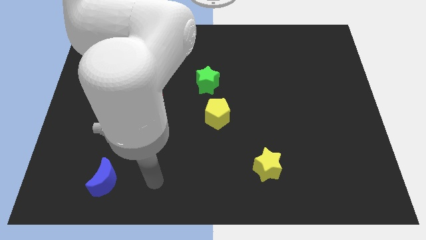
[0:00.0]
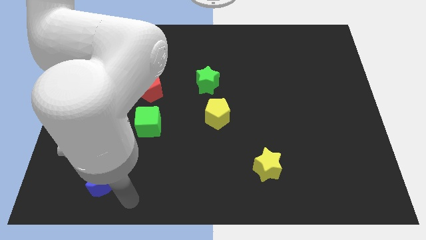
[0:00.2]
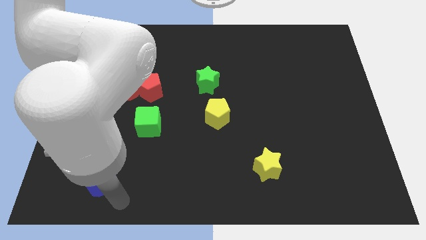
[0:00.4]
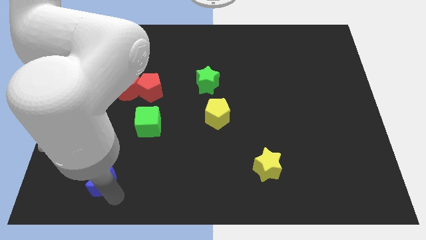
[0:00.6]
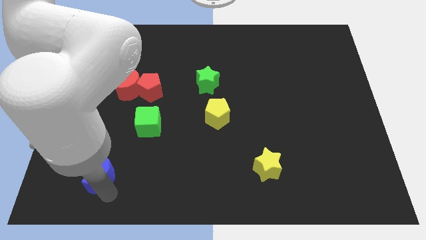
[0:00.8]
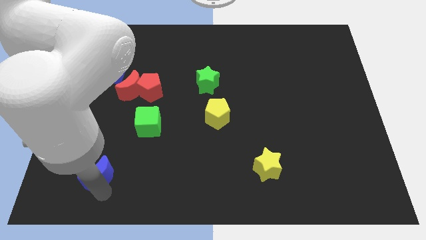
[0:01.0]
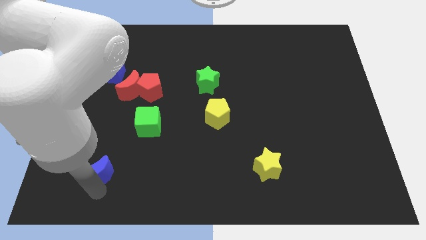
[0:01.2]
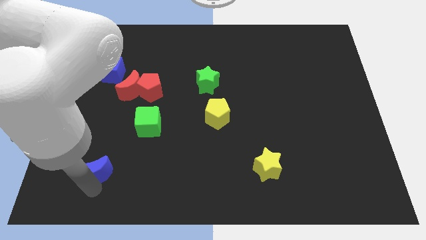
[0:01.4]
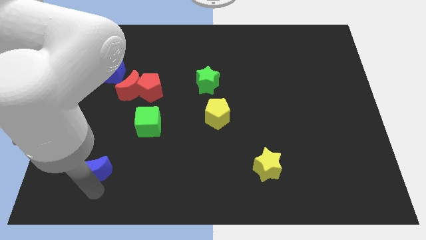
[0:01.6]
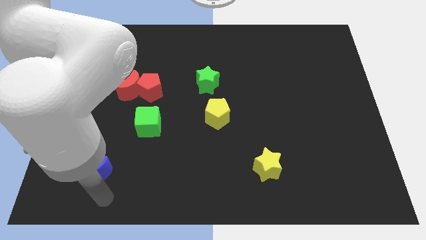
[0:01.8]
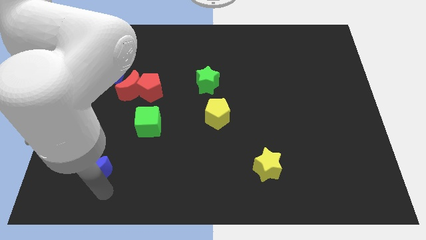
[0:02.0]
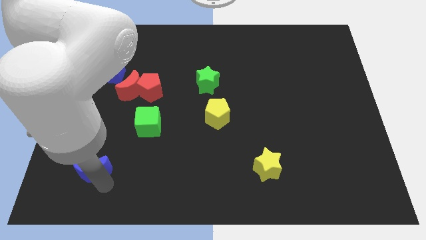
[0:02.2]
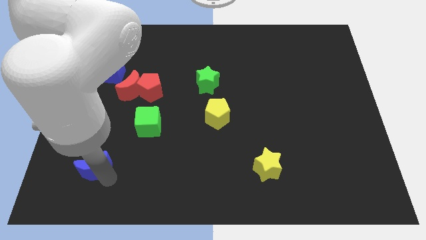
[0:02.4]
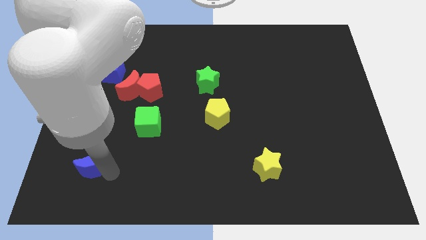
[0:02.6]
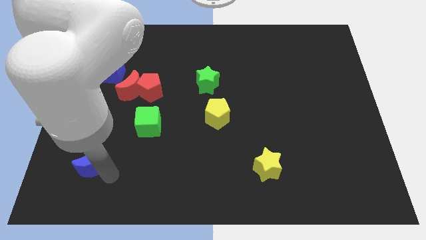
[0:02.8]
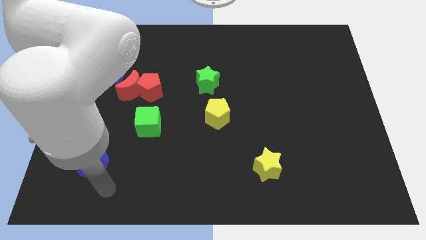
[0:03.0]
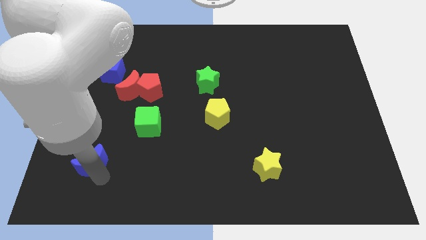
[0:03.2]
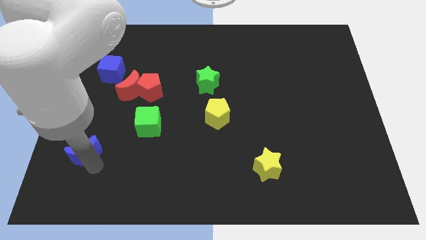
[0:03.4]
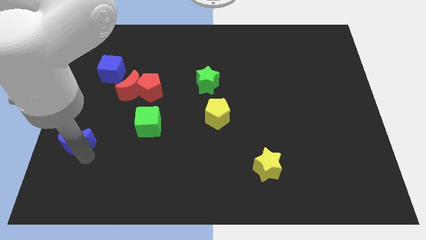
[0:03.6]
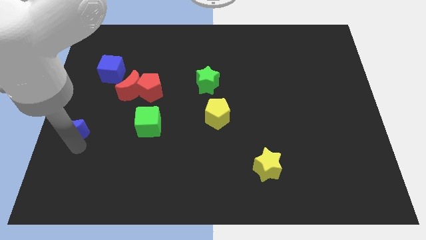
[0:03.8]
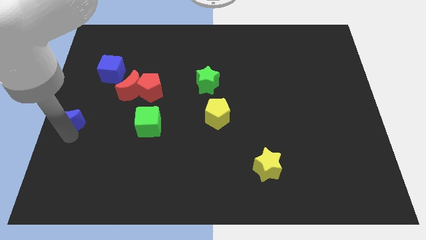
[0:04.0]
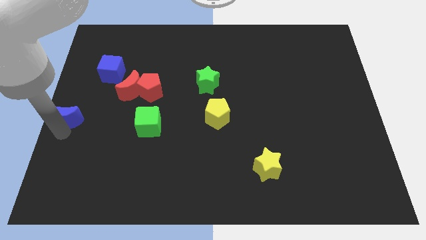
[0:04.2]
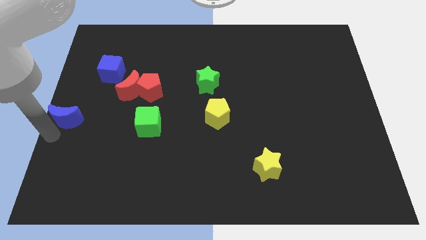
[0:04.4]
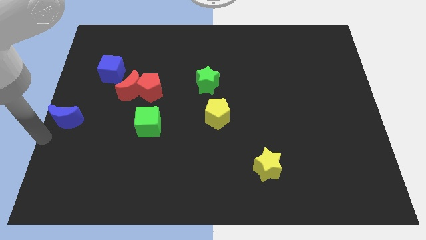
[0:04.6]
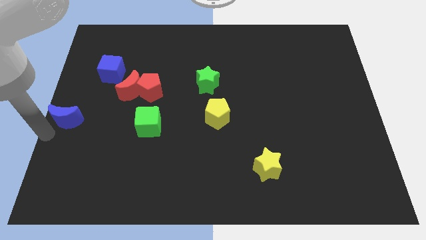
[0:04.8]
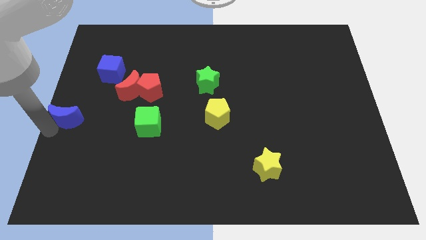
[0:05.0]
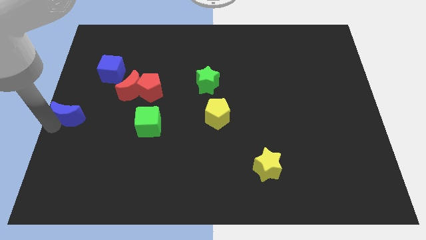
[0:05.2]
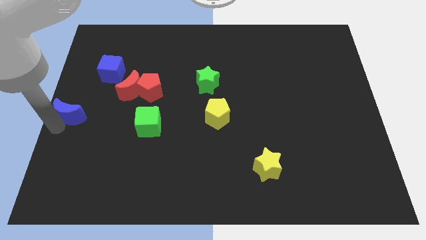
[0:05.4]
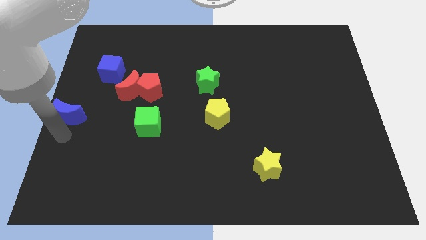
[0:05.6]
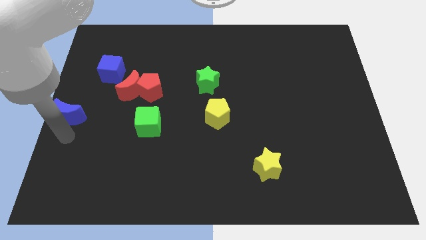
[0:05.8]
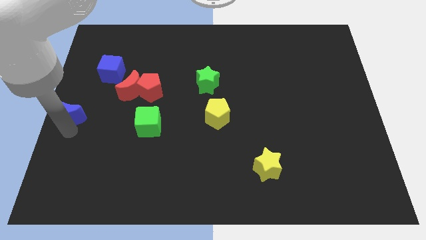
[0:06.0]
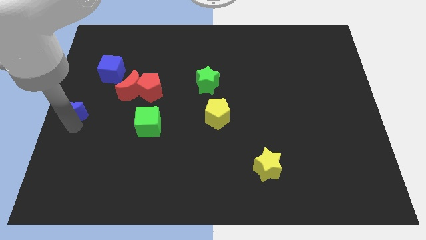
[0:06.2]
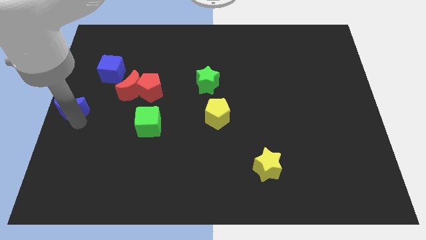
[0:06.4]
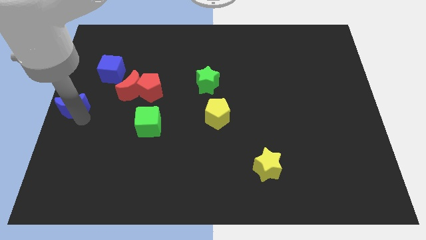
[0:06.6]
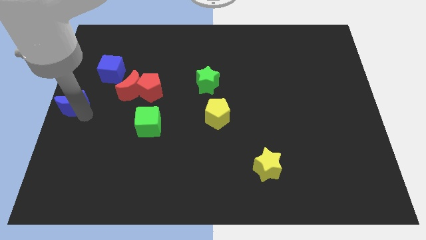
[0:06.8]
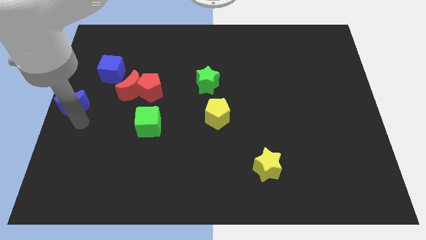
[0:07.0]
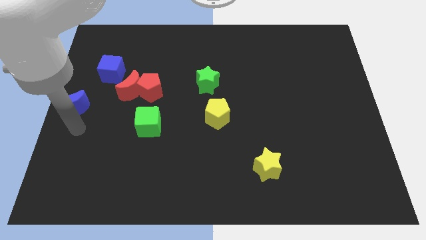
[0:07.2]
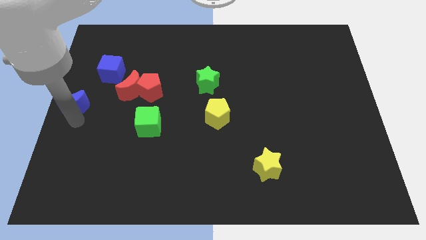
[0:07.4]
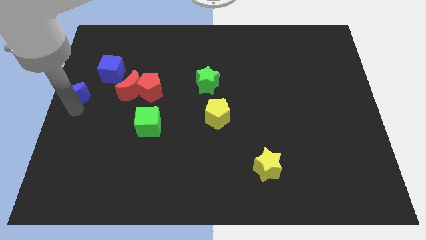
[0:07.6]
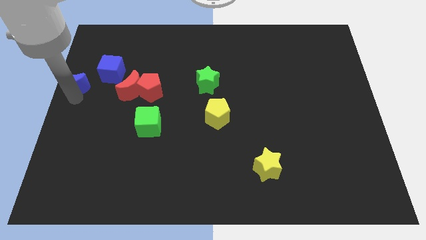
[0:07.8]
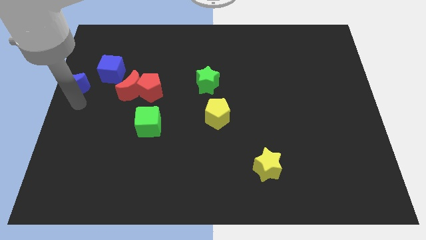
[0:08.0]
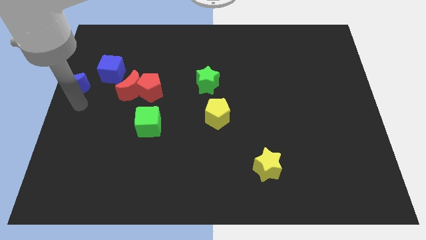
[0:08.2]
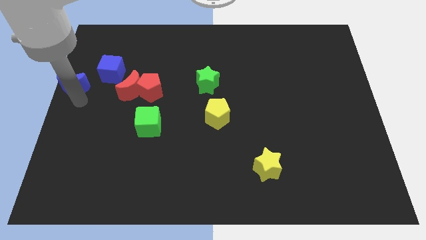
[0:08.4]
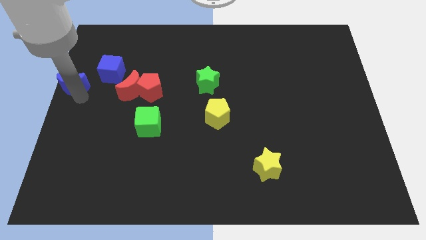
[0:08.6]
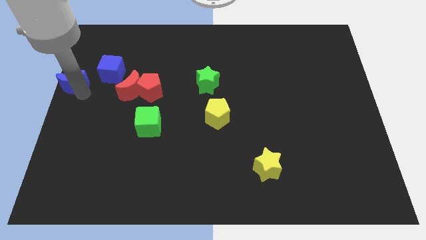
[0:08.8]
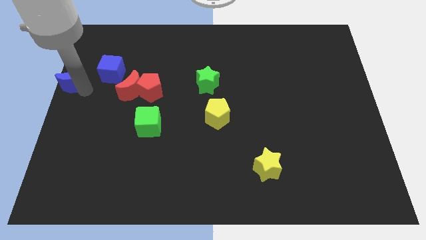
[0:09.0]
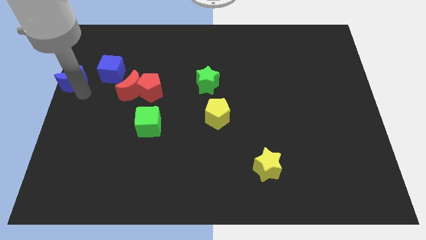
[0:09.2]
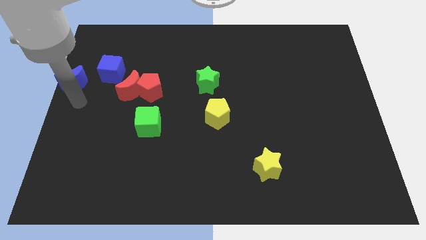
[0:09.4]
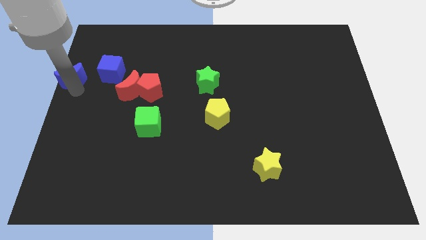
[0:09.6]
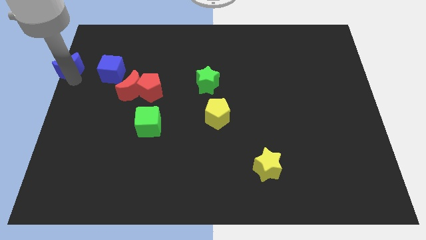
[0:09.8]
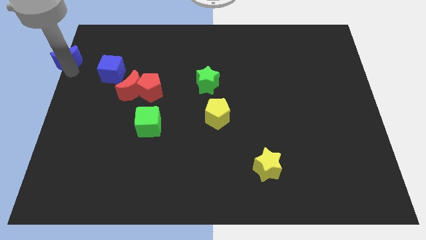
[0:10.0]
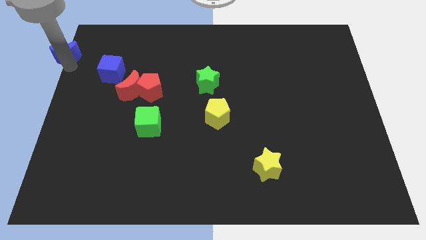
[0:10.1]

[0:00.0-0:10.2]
push the blue moon to the top left

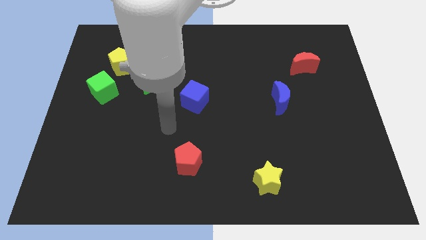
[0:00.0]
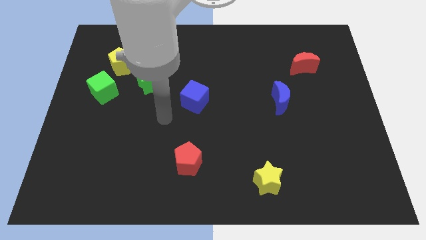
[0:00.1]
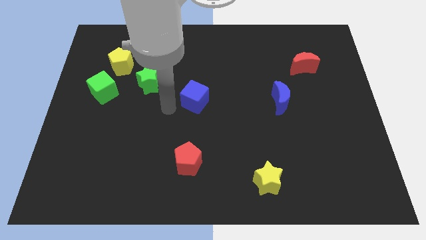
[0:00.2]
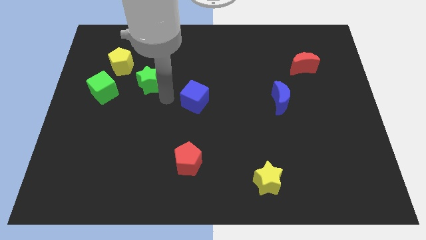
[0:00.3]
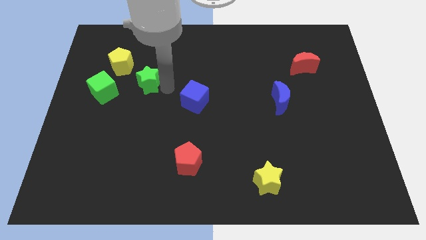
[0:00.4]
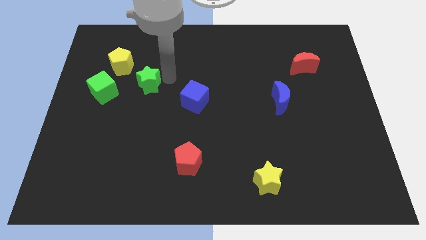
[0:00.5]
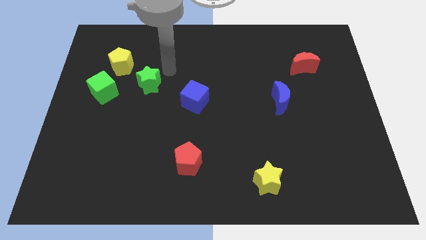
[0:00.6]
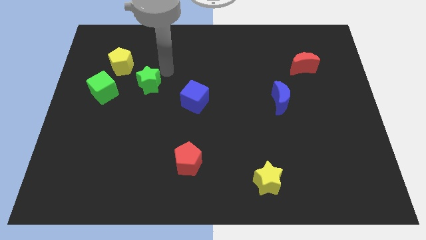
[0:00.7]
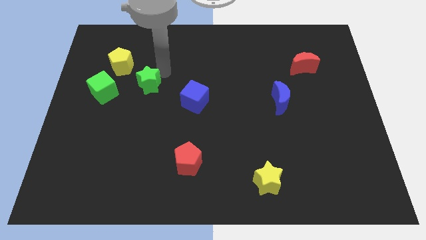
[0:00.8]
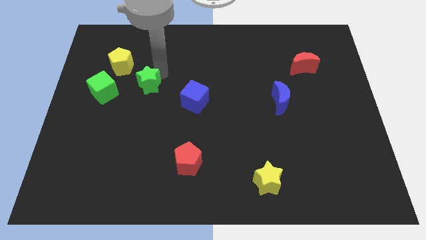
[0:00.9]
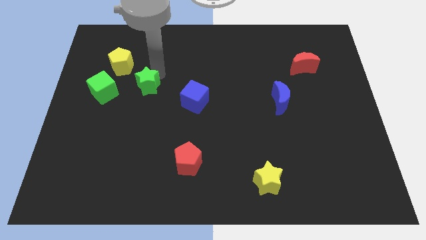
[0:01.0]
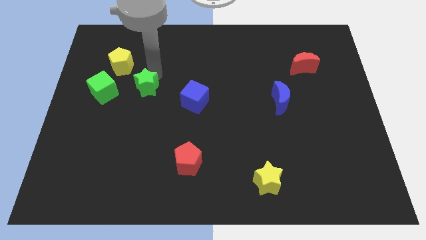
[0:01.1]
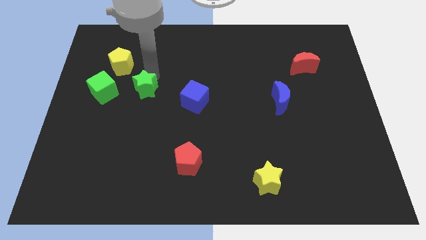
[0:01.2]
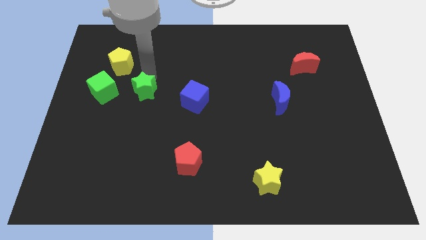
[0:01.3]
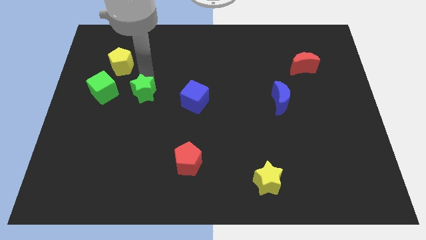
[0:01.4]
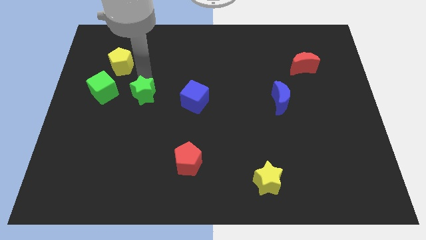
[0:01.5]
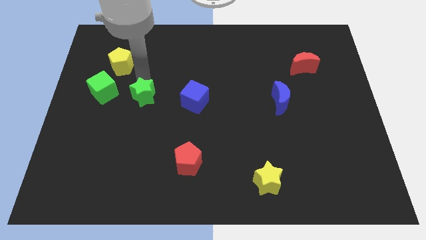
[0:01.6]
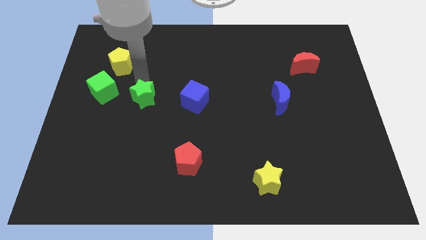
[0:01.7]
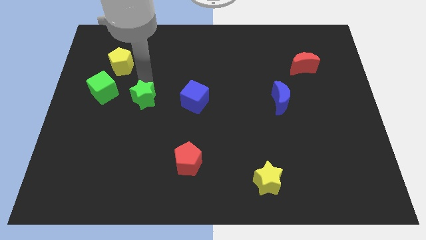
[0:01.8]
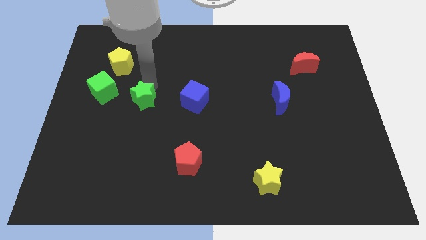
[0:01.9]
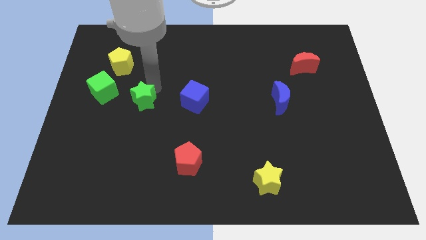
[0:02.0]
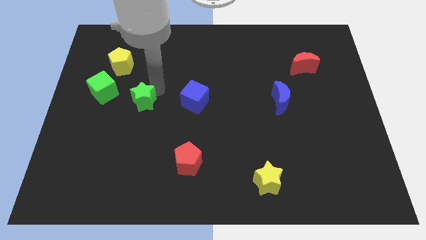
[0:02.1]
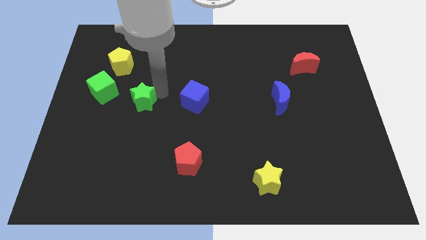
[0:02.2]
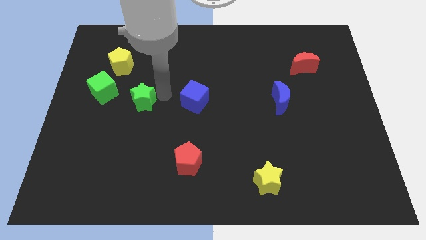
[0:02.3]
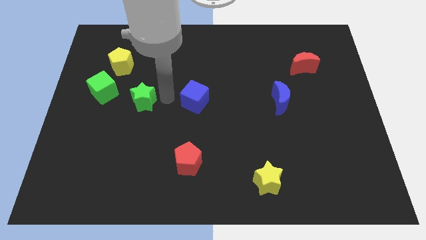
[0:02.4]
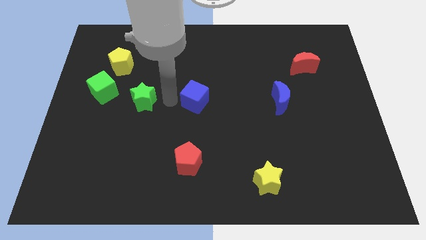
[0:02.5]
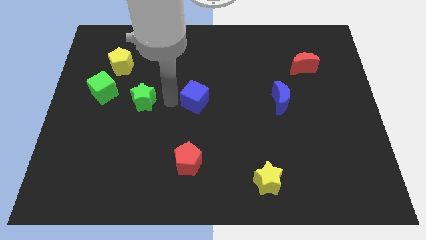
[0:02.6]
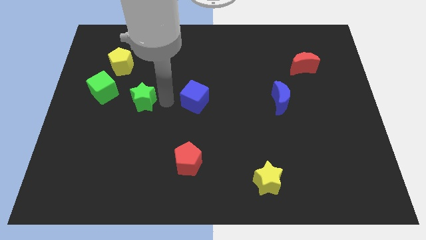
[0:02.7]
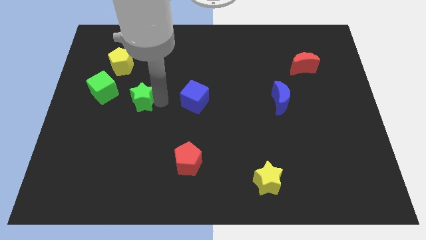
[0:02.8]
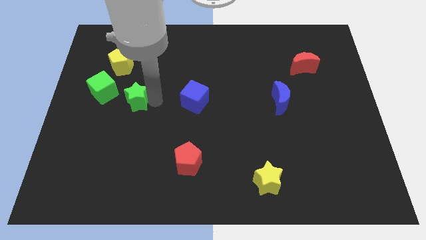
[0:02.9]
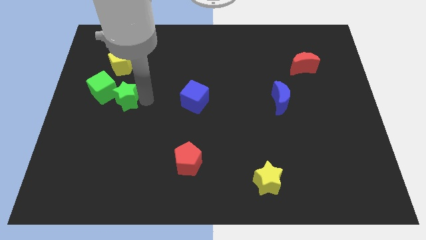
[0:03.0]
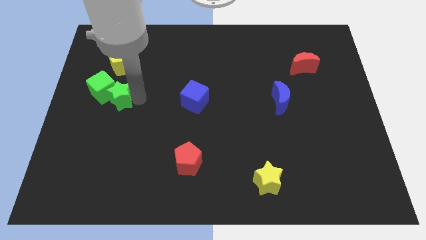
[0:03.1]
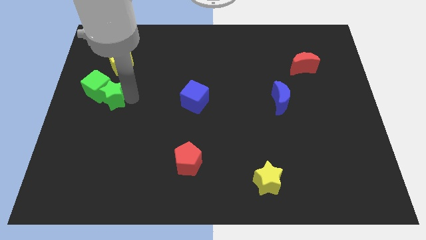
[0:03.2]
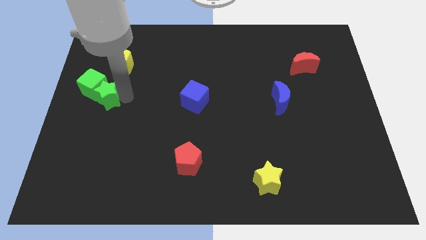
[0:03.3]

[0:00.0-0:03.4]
move the green star to the center left
